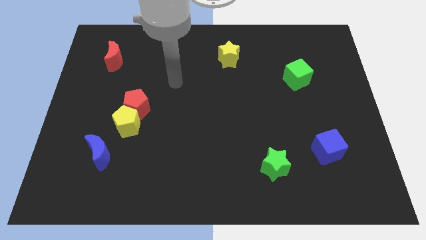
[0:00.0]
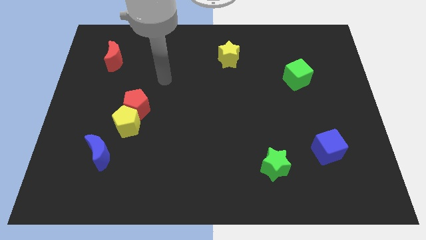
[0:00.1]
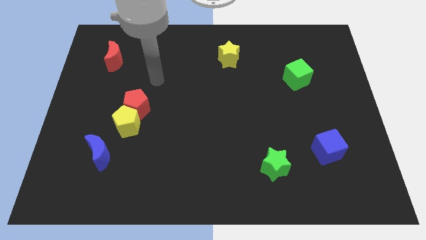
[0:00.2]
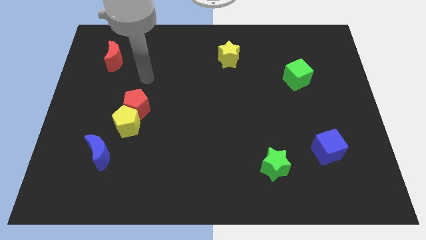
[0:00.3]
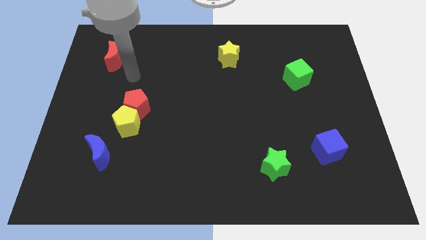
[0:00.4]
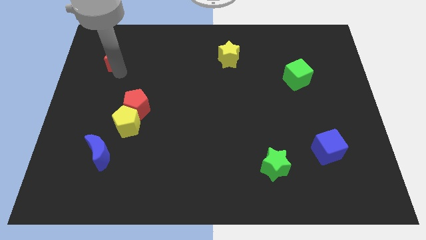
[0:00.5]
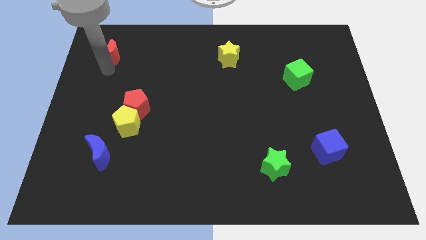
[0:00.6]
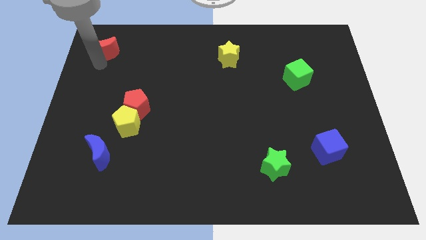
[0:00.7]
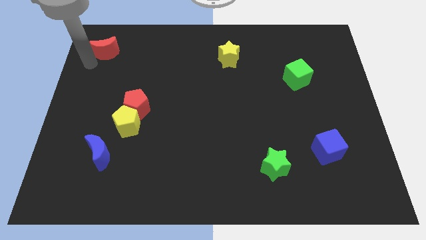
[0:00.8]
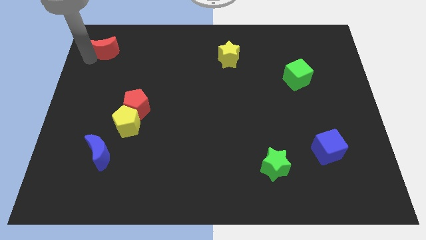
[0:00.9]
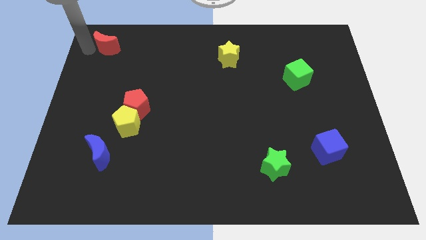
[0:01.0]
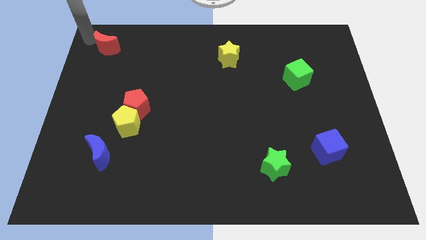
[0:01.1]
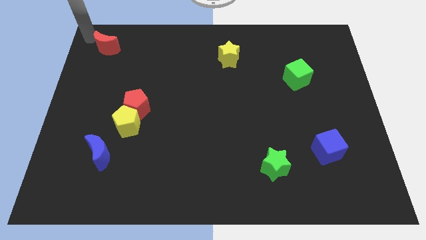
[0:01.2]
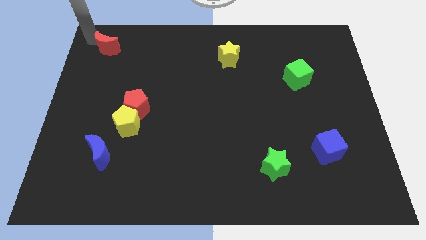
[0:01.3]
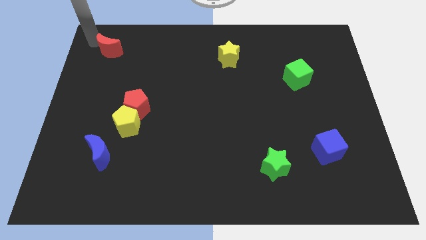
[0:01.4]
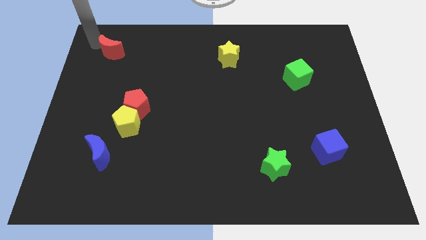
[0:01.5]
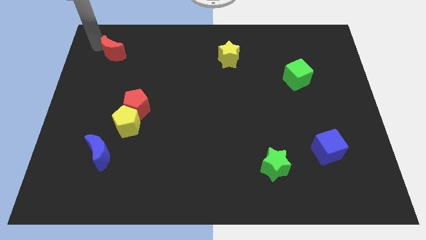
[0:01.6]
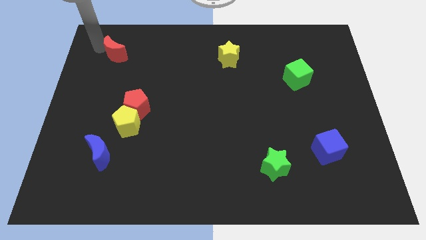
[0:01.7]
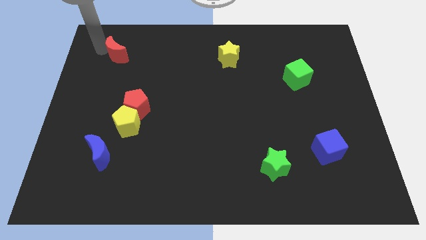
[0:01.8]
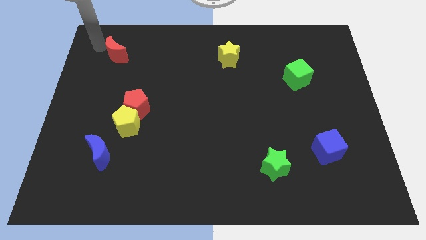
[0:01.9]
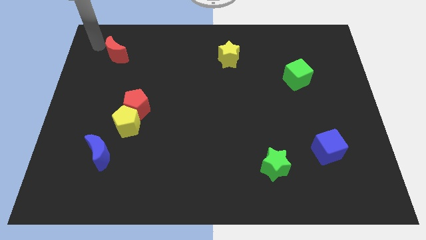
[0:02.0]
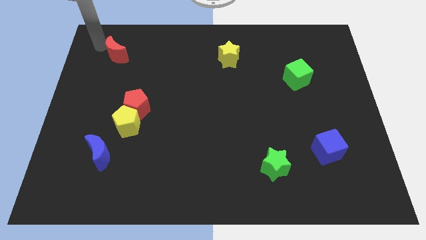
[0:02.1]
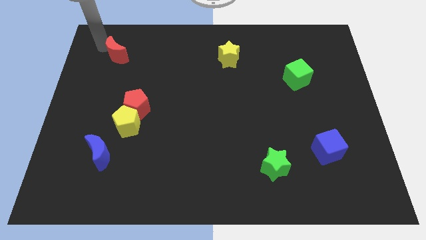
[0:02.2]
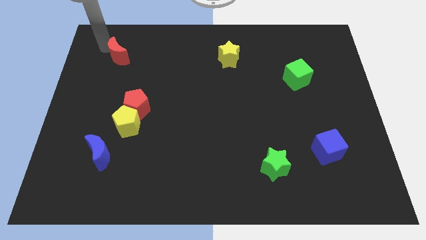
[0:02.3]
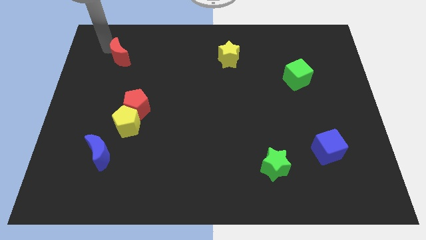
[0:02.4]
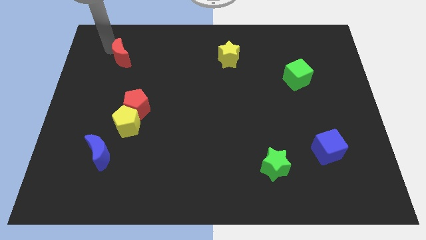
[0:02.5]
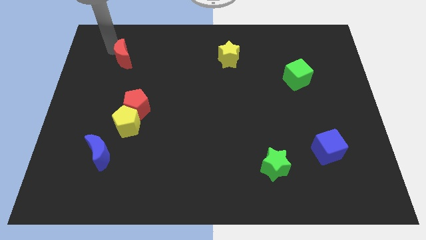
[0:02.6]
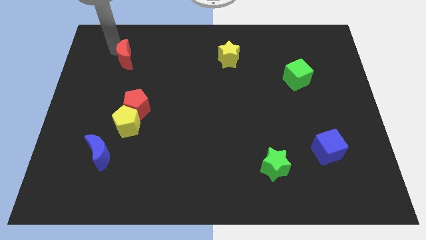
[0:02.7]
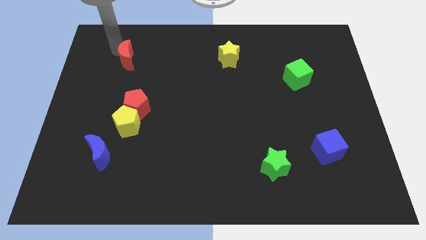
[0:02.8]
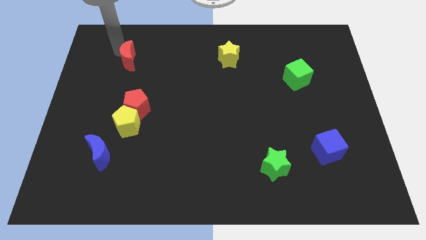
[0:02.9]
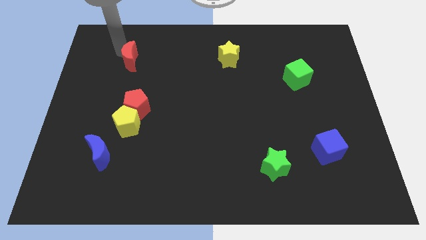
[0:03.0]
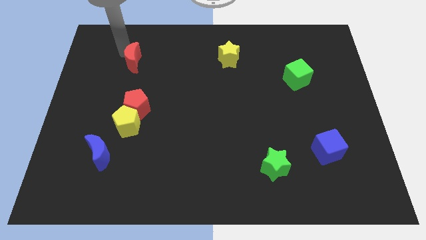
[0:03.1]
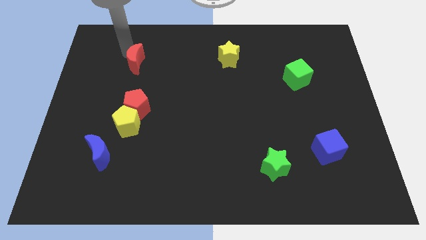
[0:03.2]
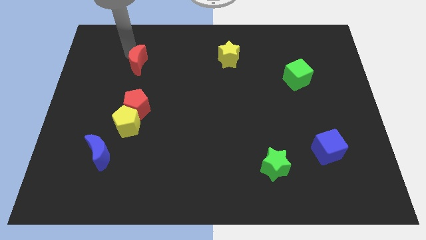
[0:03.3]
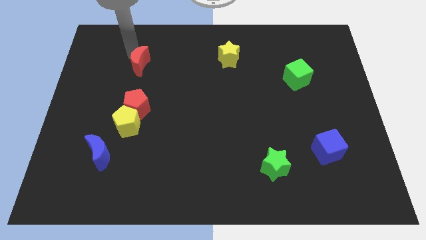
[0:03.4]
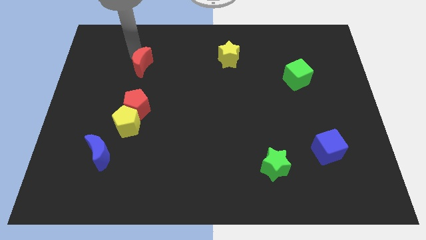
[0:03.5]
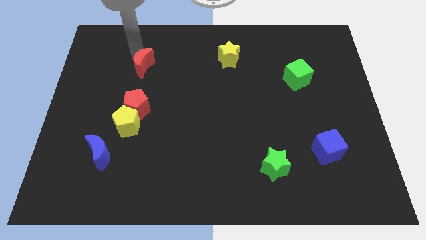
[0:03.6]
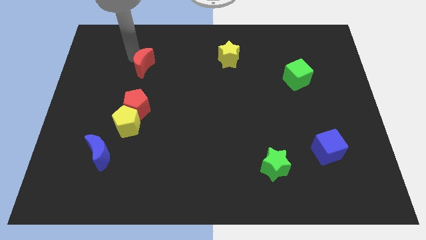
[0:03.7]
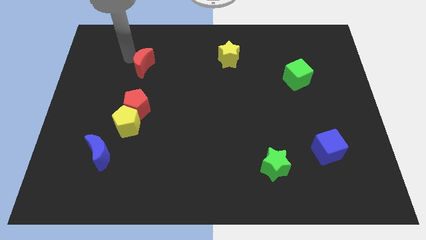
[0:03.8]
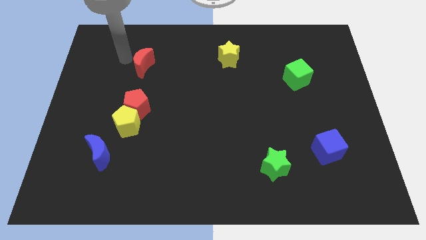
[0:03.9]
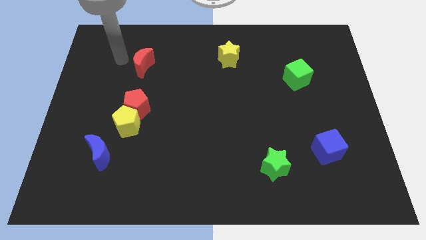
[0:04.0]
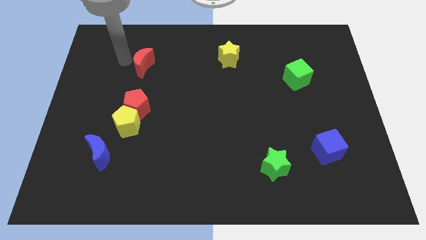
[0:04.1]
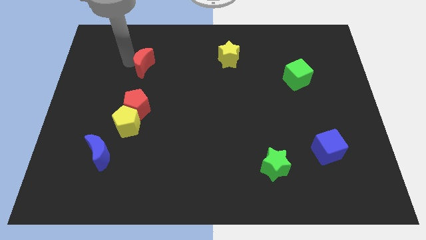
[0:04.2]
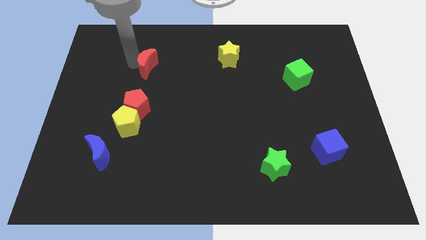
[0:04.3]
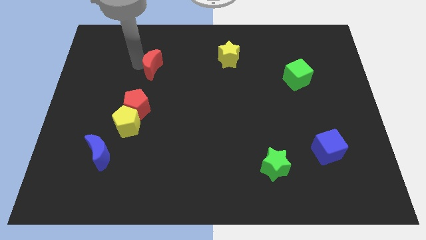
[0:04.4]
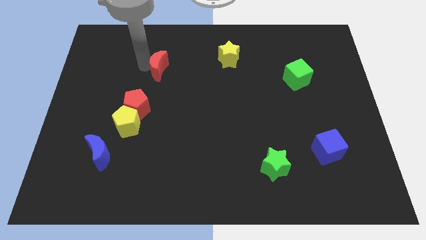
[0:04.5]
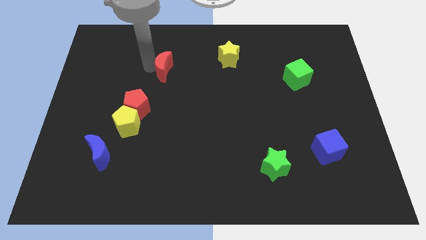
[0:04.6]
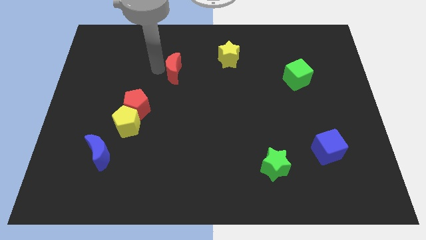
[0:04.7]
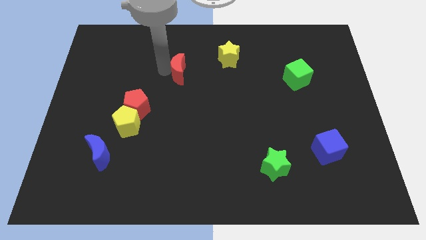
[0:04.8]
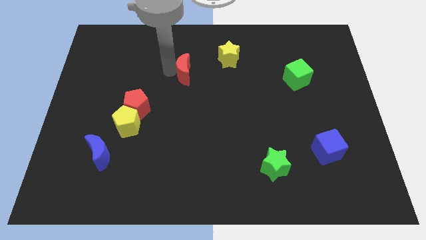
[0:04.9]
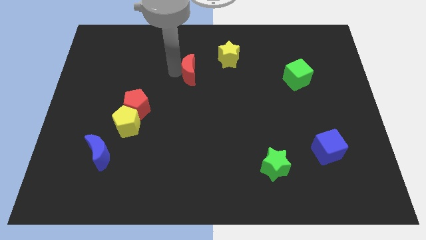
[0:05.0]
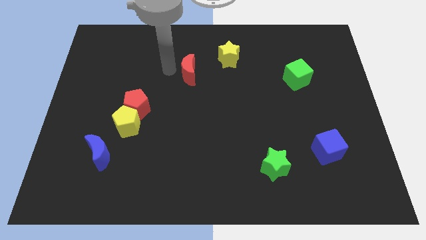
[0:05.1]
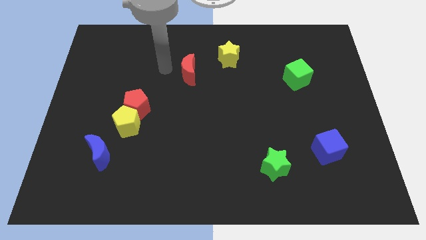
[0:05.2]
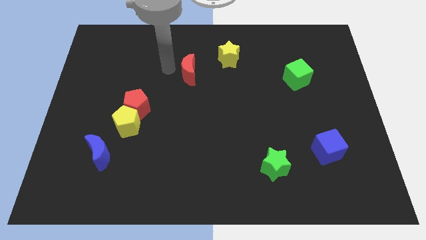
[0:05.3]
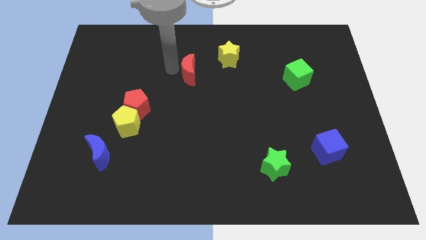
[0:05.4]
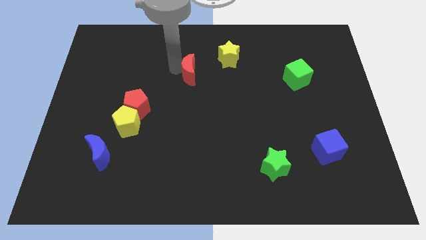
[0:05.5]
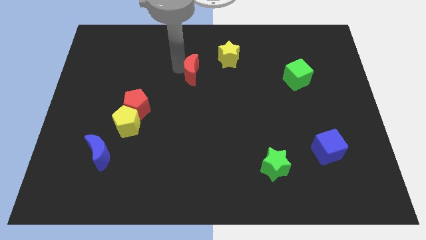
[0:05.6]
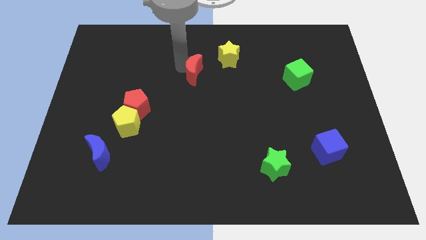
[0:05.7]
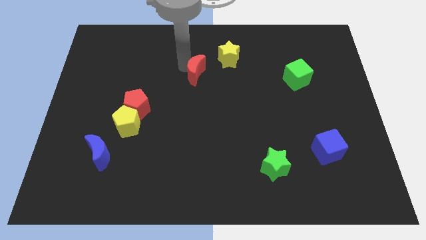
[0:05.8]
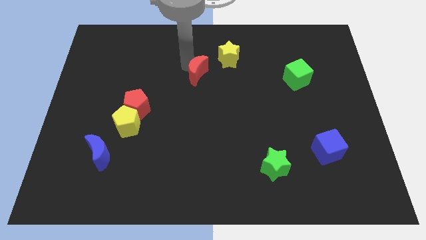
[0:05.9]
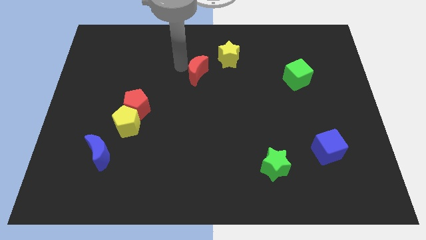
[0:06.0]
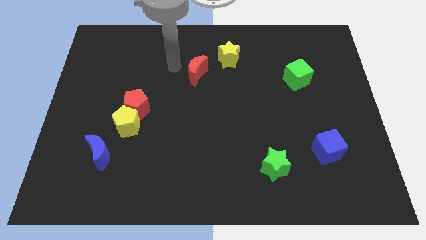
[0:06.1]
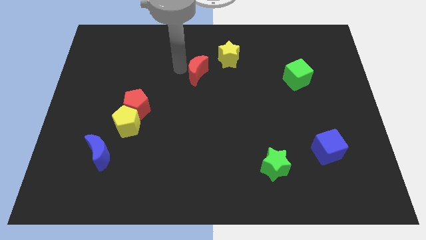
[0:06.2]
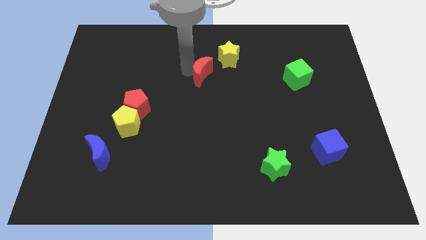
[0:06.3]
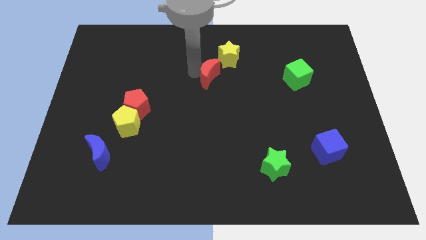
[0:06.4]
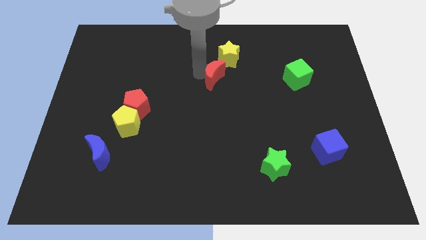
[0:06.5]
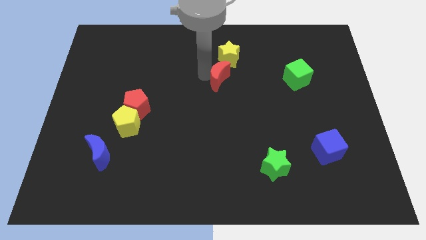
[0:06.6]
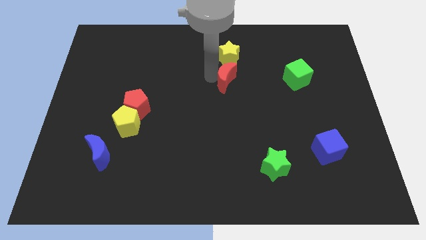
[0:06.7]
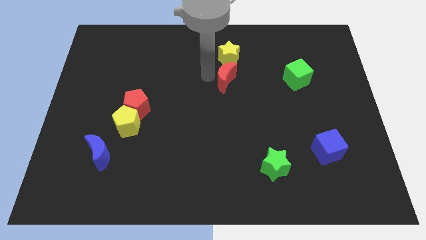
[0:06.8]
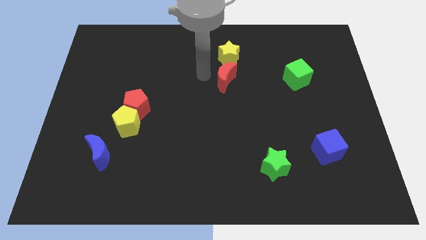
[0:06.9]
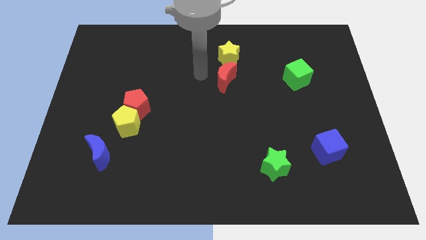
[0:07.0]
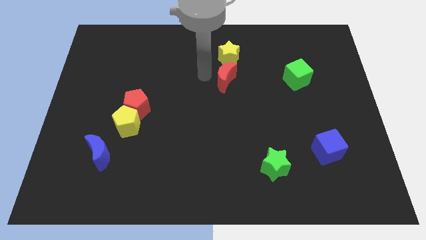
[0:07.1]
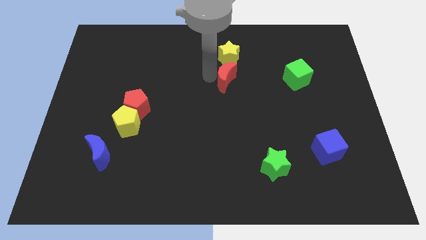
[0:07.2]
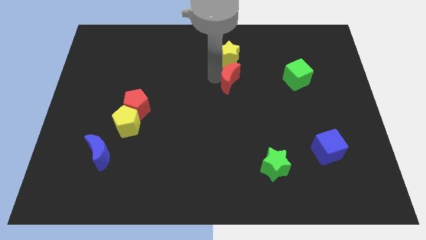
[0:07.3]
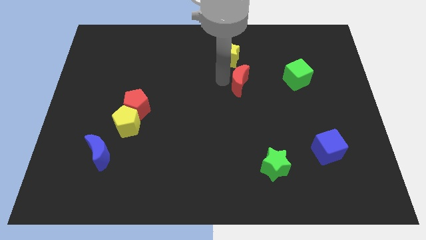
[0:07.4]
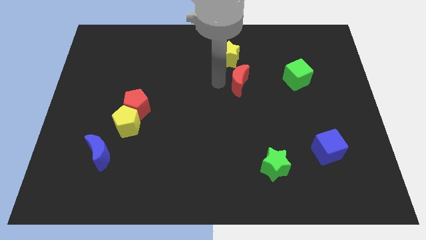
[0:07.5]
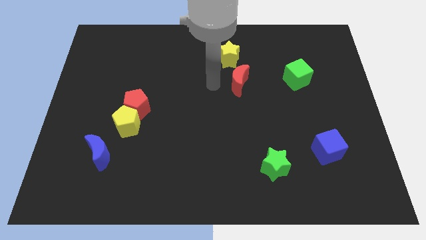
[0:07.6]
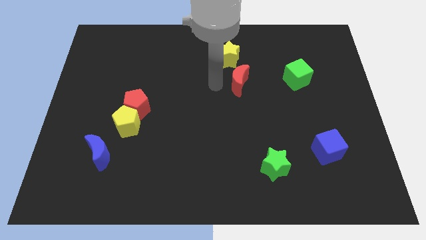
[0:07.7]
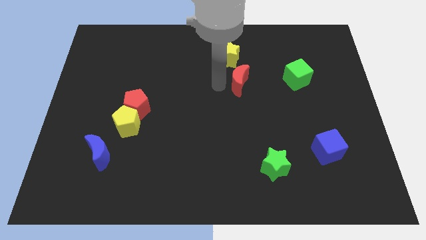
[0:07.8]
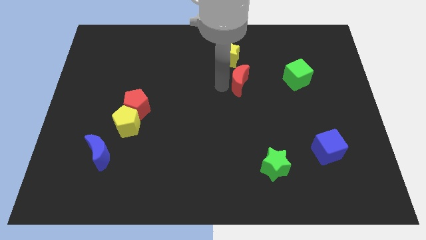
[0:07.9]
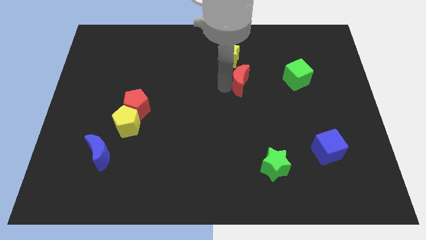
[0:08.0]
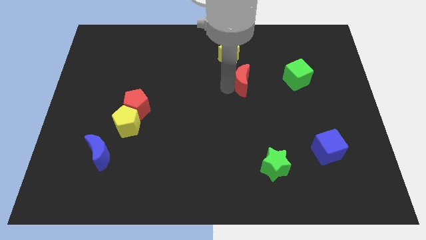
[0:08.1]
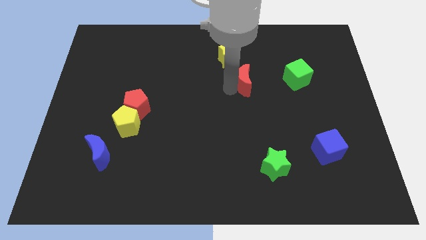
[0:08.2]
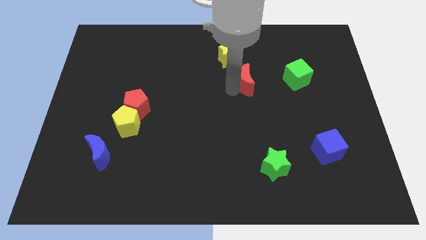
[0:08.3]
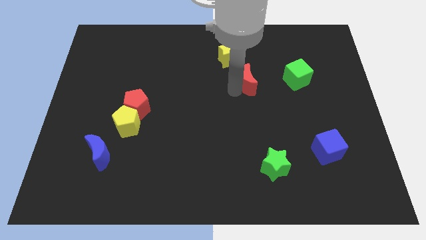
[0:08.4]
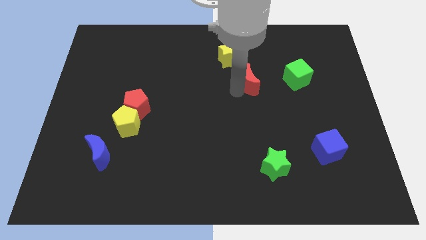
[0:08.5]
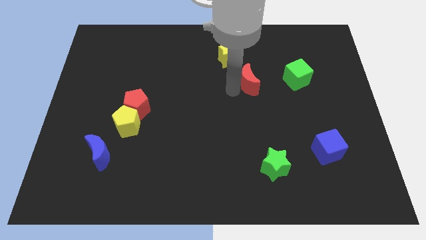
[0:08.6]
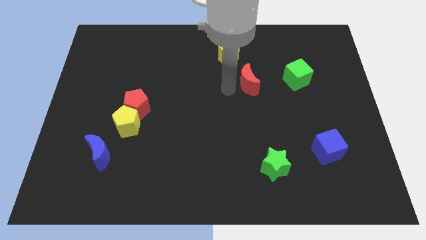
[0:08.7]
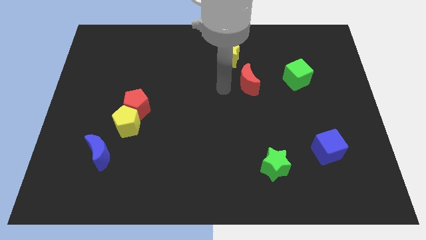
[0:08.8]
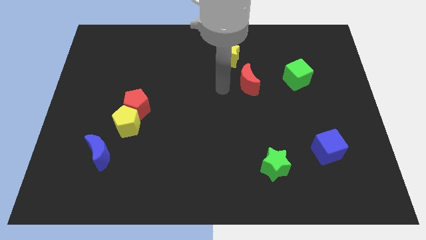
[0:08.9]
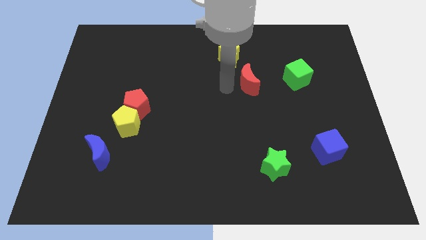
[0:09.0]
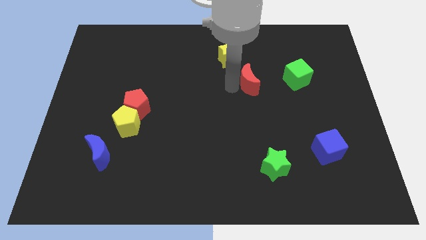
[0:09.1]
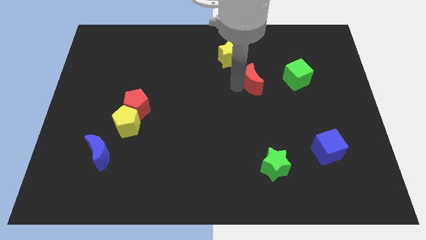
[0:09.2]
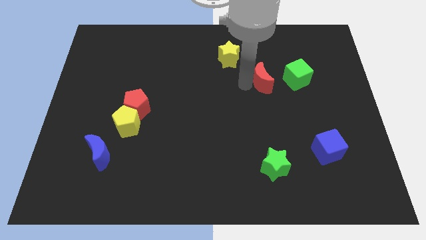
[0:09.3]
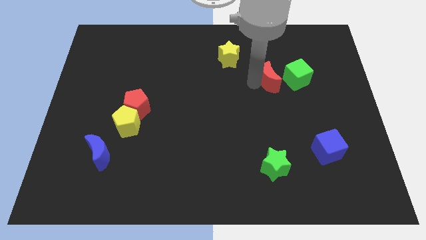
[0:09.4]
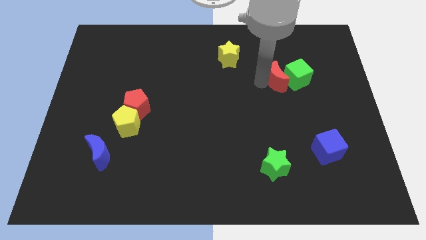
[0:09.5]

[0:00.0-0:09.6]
move the red moon close to the green cube
